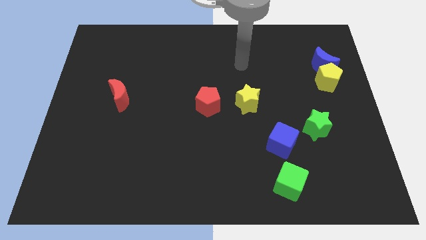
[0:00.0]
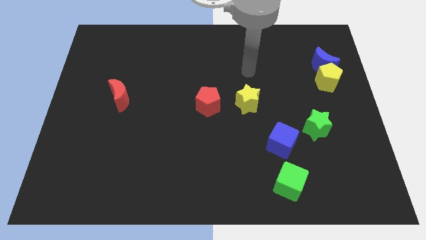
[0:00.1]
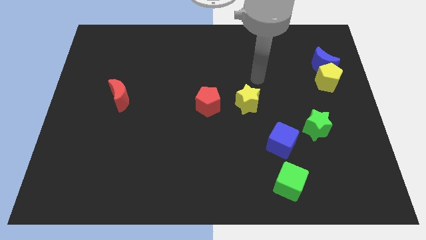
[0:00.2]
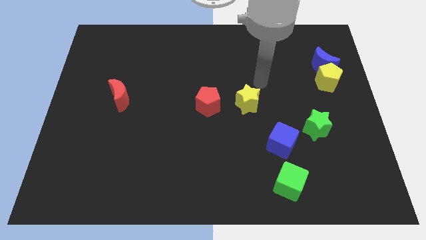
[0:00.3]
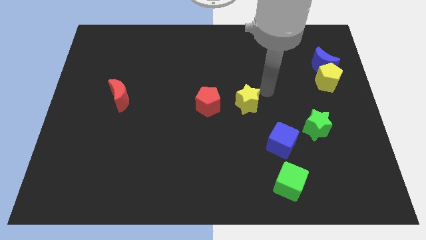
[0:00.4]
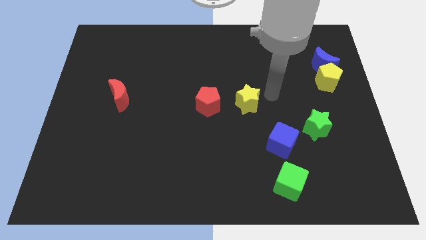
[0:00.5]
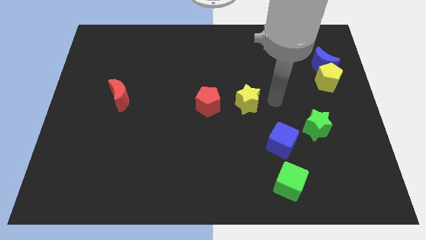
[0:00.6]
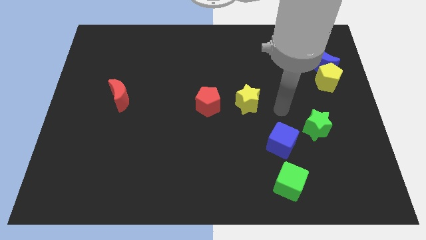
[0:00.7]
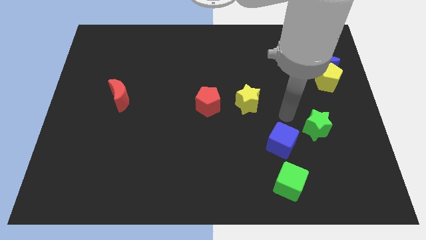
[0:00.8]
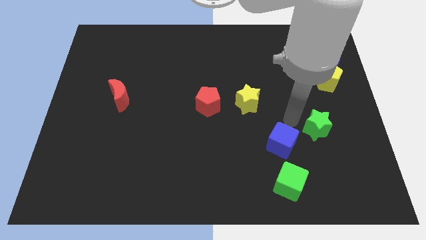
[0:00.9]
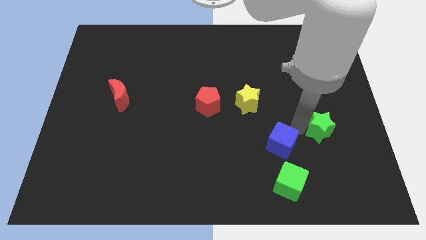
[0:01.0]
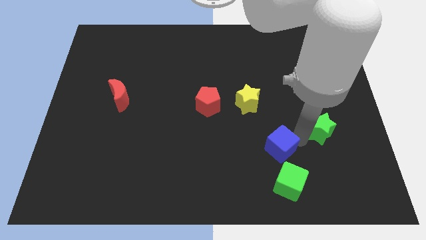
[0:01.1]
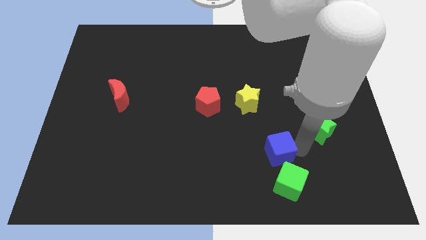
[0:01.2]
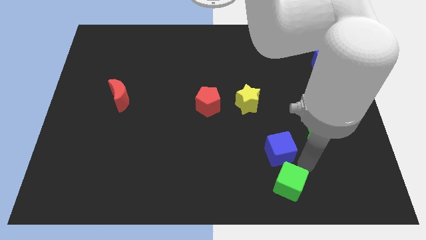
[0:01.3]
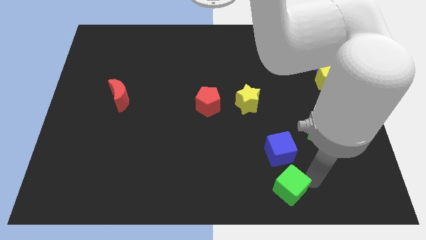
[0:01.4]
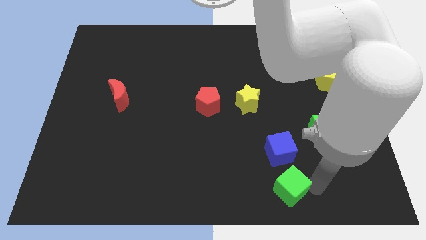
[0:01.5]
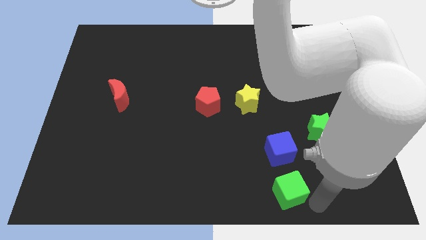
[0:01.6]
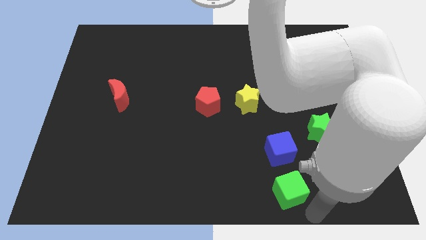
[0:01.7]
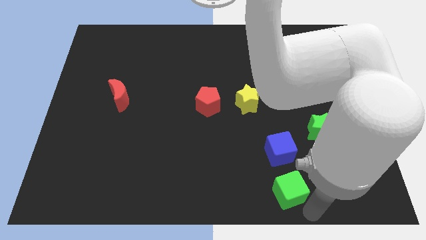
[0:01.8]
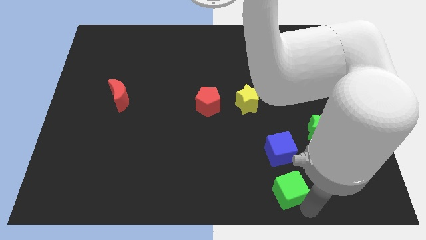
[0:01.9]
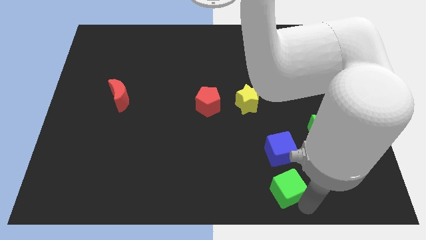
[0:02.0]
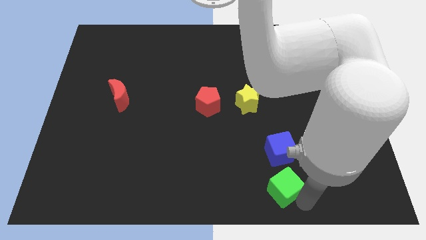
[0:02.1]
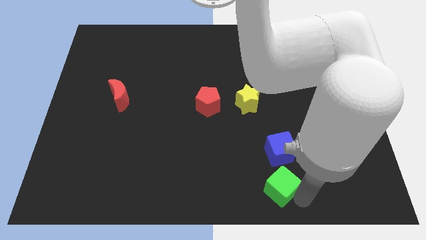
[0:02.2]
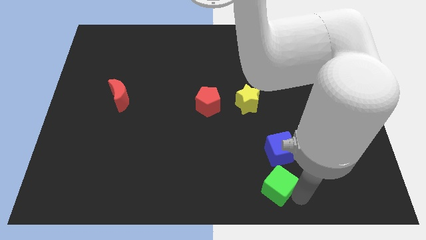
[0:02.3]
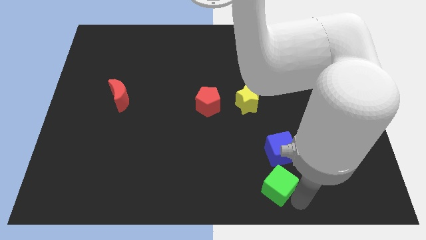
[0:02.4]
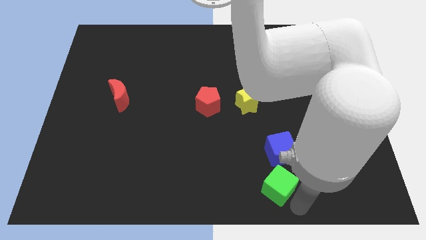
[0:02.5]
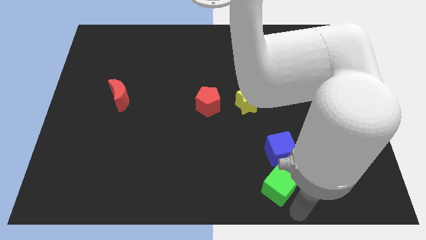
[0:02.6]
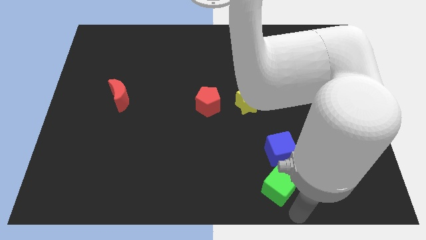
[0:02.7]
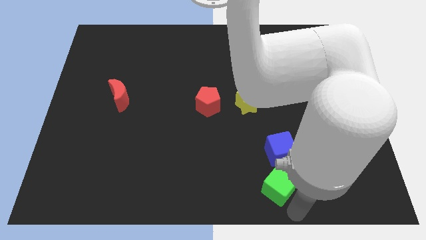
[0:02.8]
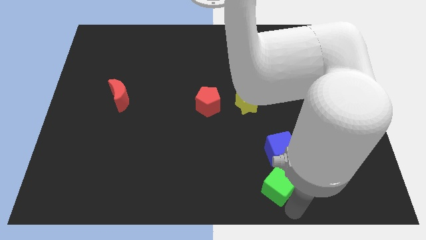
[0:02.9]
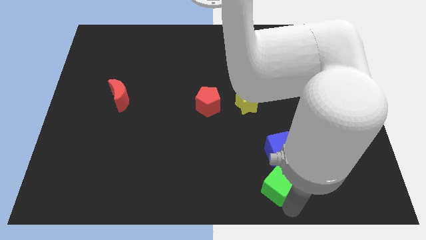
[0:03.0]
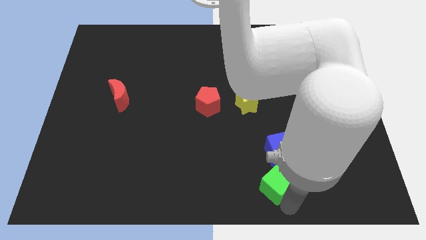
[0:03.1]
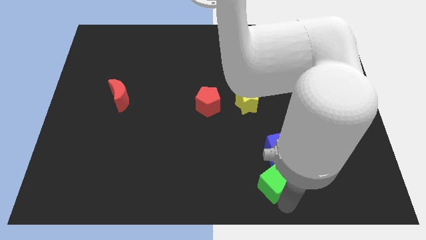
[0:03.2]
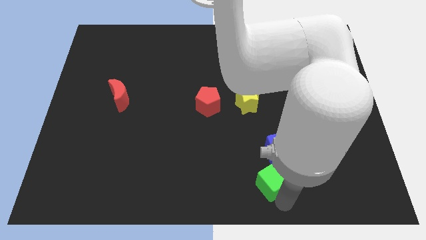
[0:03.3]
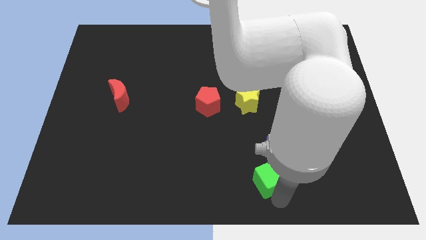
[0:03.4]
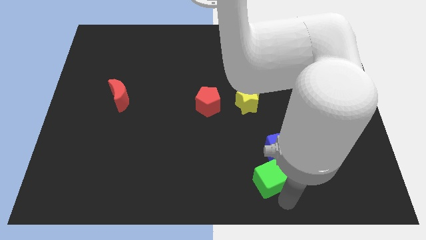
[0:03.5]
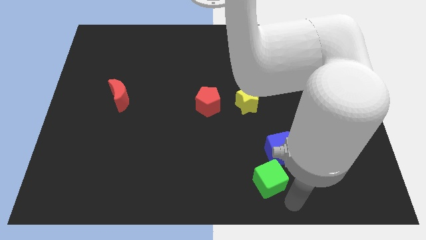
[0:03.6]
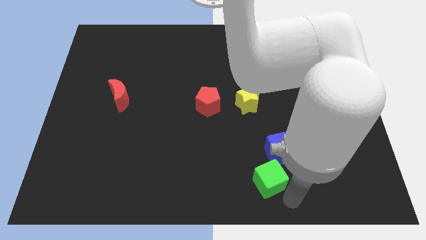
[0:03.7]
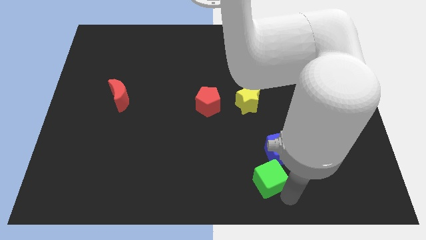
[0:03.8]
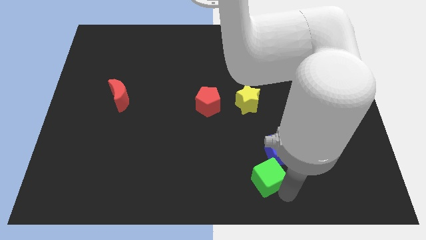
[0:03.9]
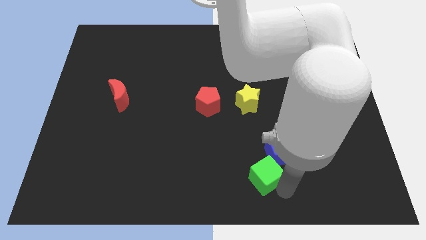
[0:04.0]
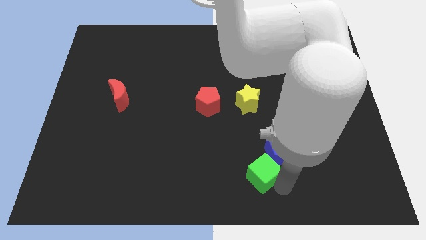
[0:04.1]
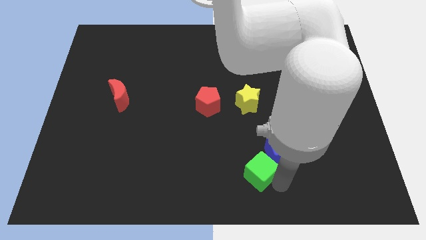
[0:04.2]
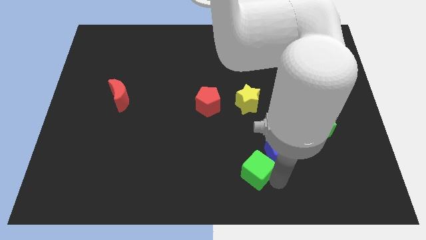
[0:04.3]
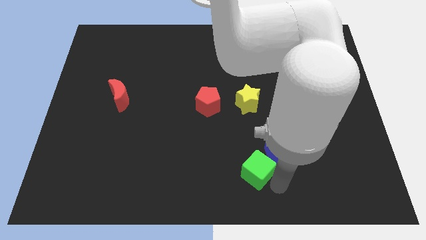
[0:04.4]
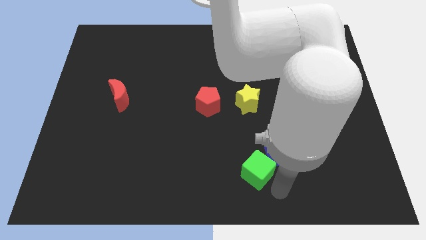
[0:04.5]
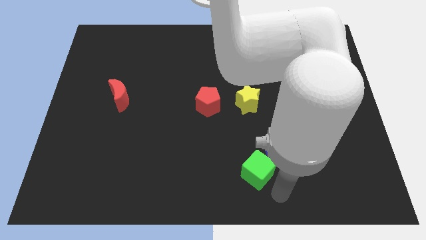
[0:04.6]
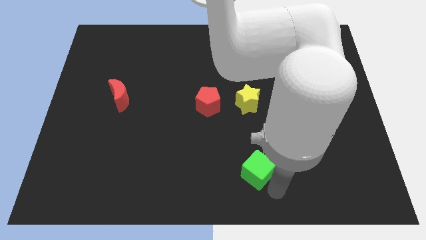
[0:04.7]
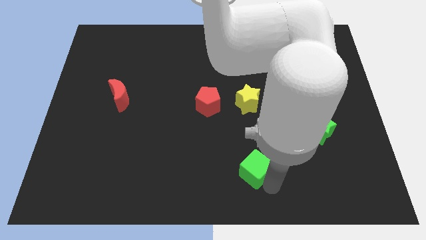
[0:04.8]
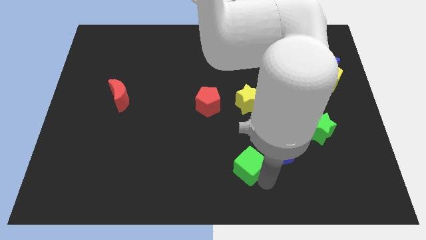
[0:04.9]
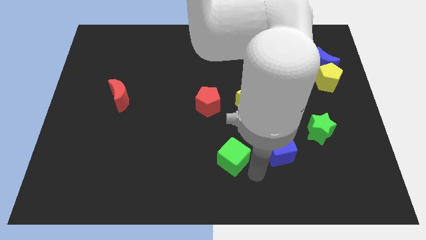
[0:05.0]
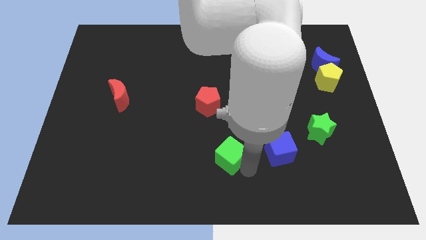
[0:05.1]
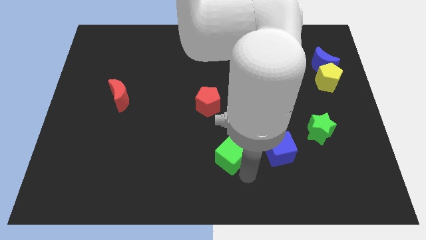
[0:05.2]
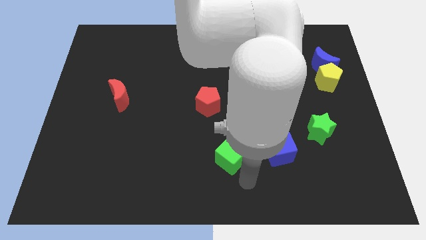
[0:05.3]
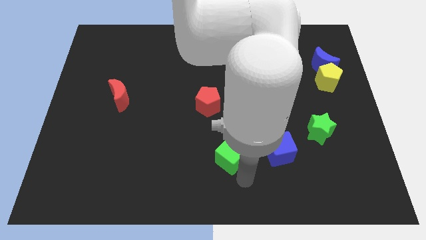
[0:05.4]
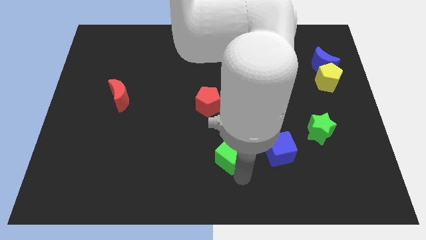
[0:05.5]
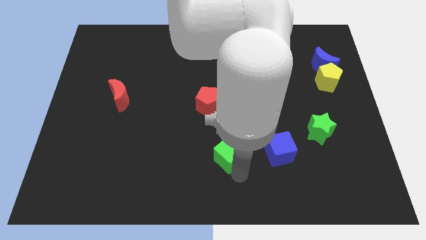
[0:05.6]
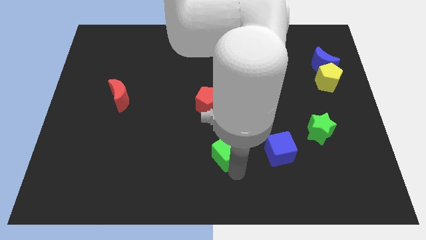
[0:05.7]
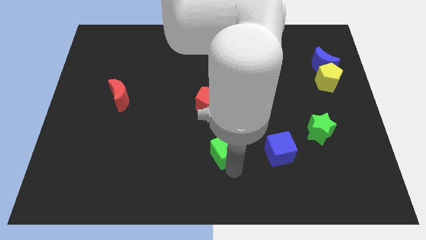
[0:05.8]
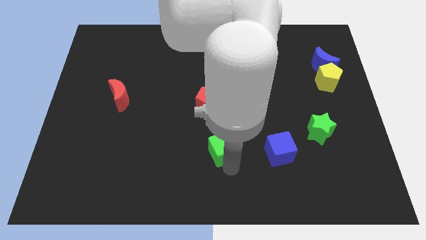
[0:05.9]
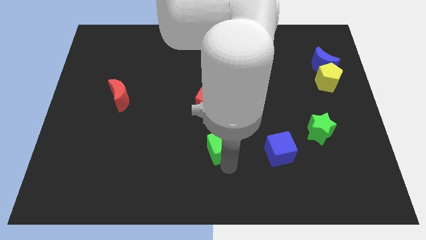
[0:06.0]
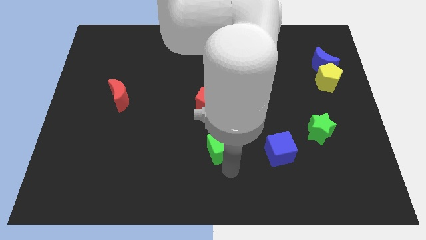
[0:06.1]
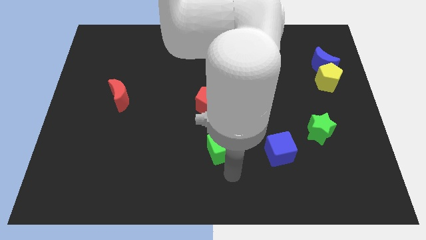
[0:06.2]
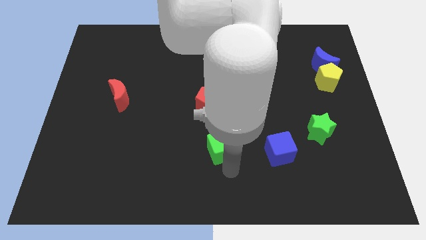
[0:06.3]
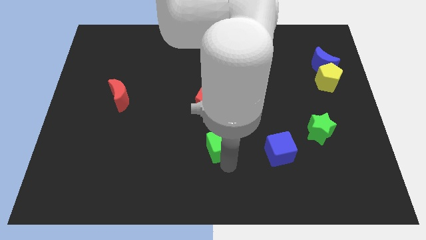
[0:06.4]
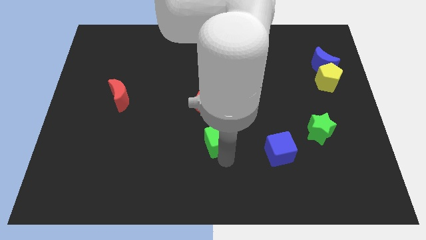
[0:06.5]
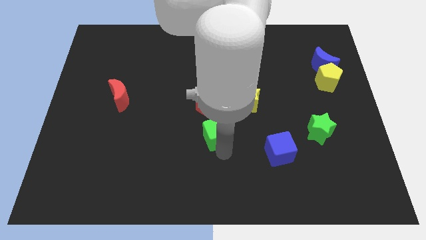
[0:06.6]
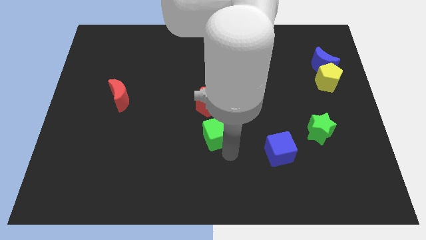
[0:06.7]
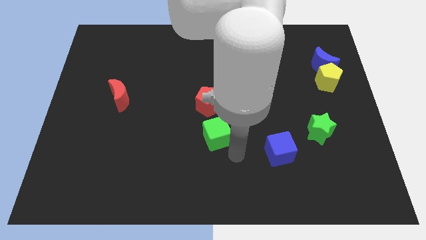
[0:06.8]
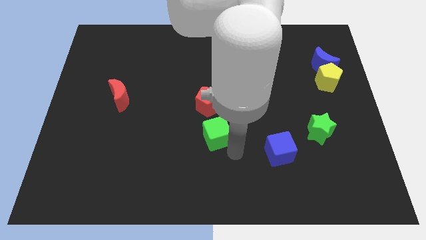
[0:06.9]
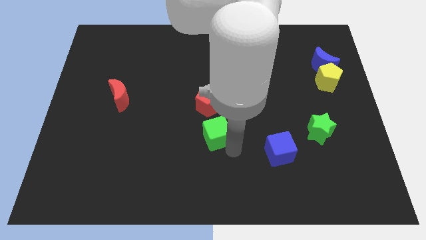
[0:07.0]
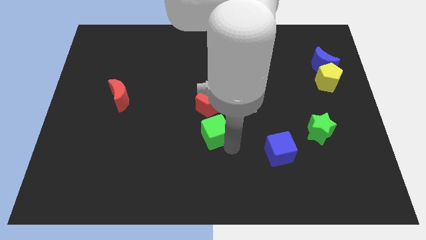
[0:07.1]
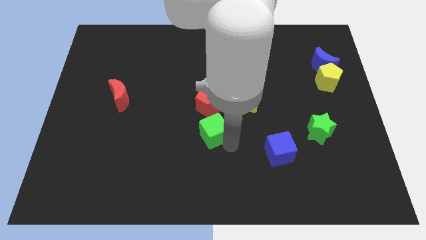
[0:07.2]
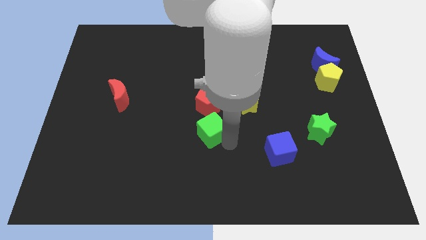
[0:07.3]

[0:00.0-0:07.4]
move the green cube up and then to the left

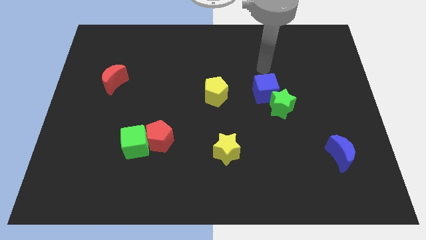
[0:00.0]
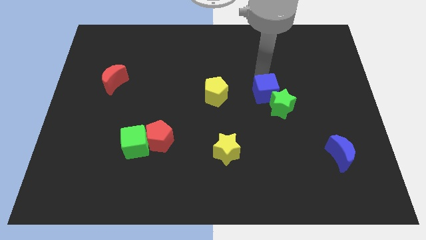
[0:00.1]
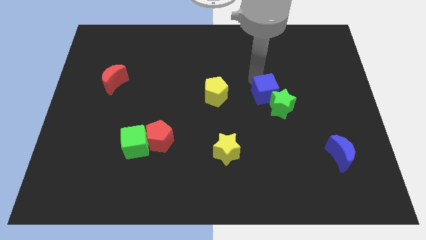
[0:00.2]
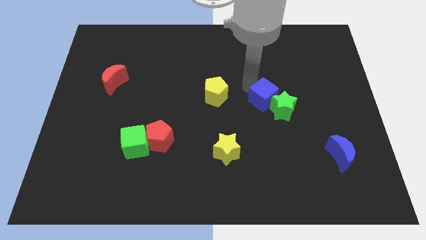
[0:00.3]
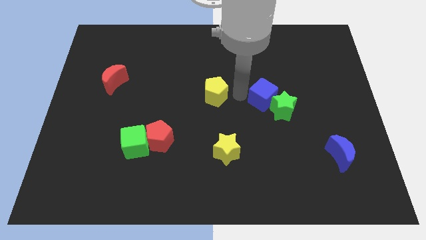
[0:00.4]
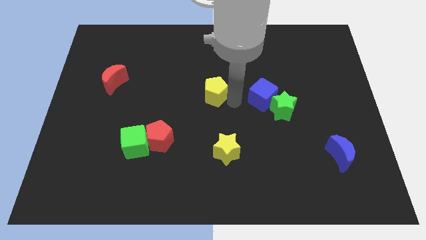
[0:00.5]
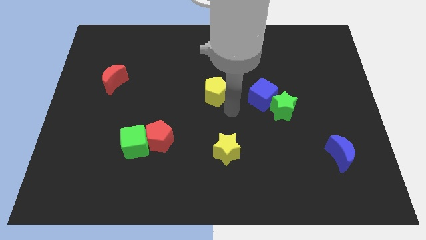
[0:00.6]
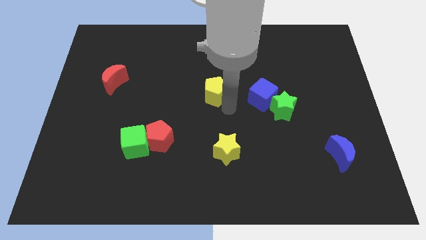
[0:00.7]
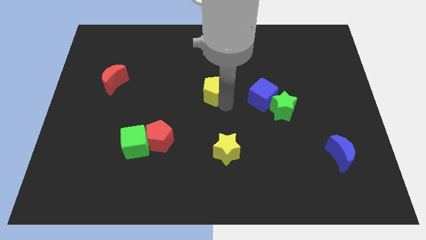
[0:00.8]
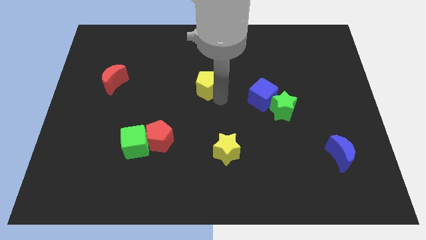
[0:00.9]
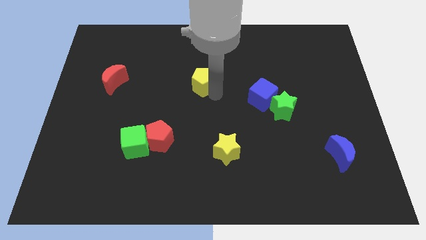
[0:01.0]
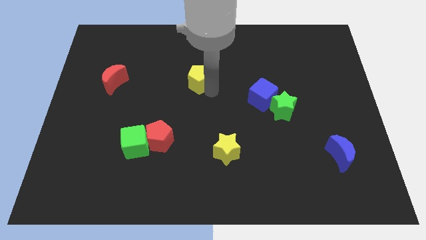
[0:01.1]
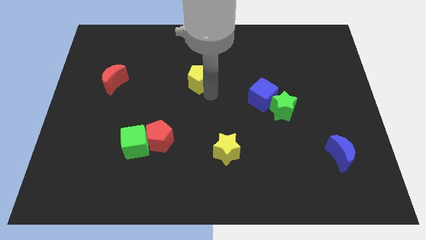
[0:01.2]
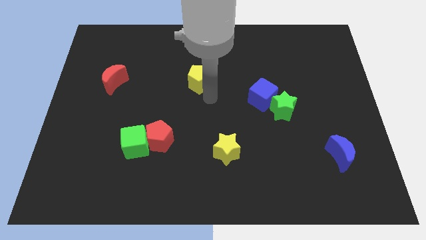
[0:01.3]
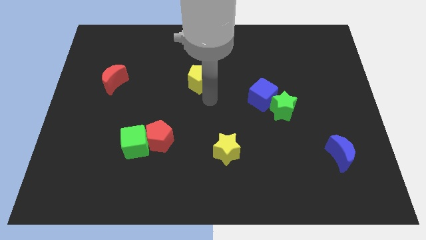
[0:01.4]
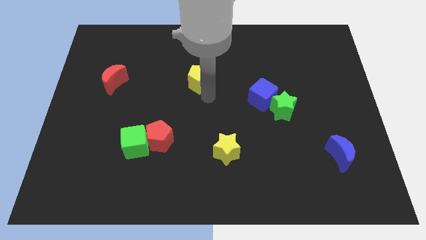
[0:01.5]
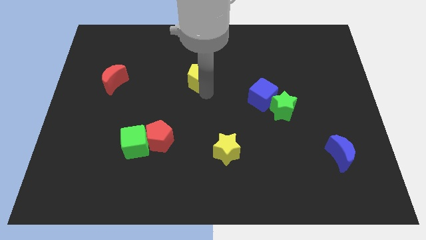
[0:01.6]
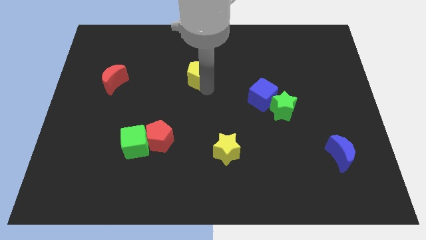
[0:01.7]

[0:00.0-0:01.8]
slightly move the yellow pentagon diagonally up and to the left
